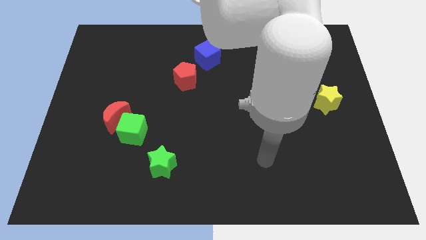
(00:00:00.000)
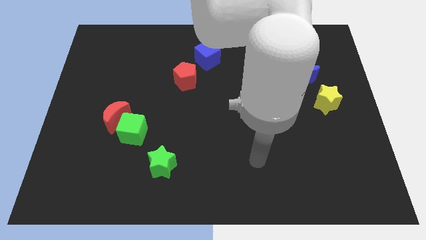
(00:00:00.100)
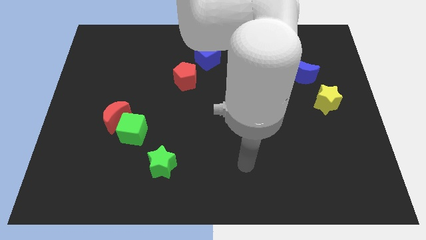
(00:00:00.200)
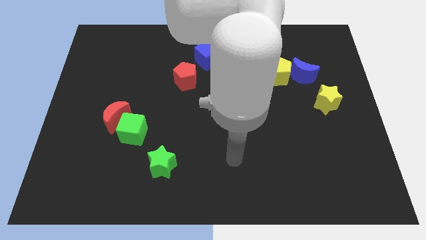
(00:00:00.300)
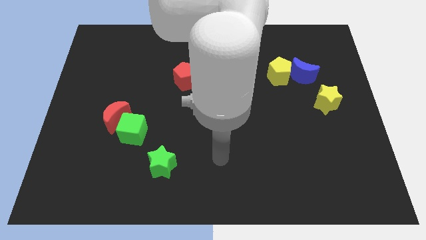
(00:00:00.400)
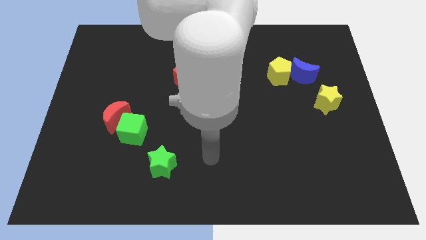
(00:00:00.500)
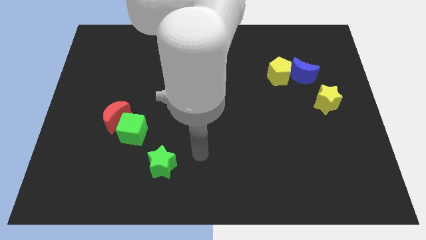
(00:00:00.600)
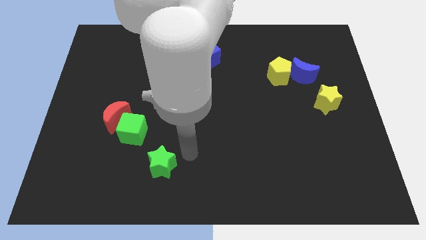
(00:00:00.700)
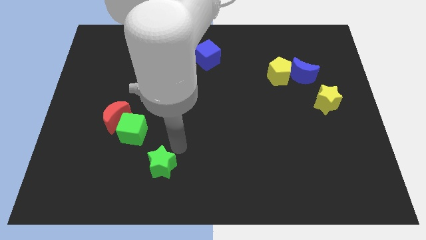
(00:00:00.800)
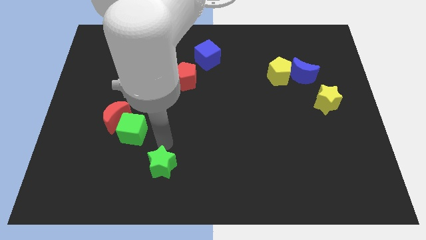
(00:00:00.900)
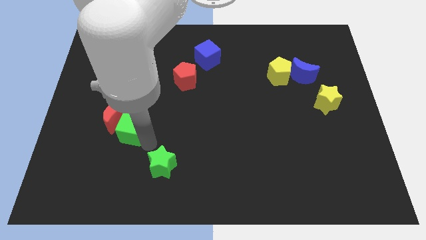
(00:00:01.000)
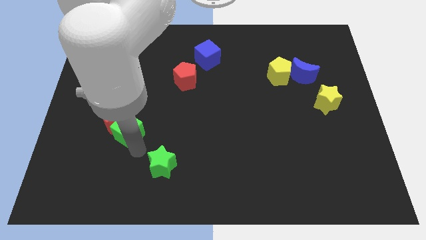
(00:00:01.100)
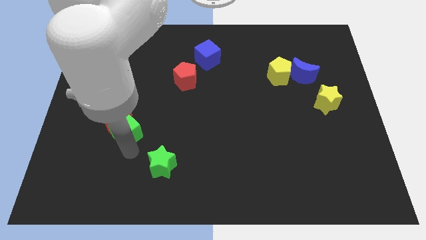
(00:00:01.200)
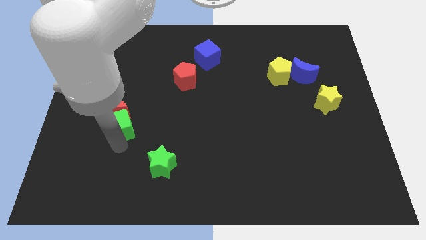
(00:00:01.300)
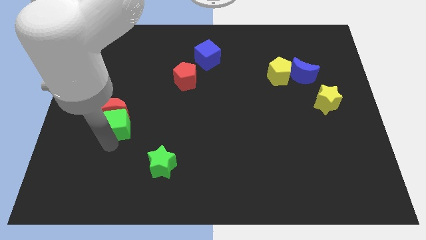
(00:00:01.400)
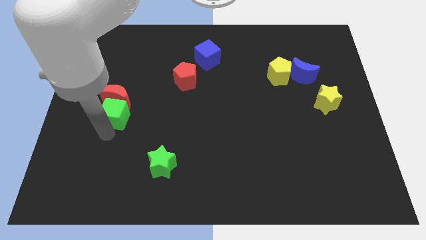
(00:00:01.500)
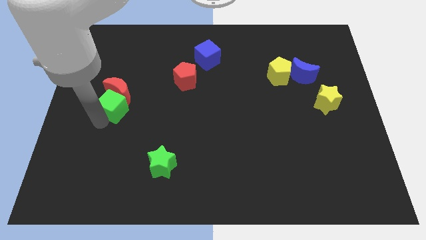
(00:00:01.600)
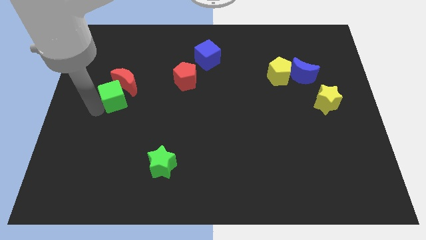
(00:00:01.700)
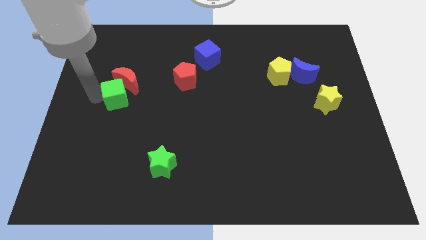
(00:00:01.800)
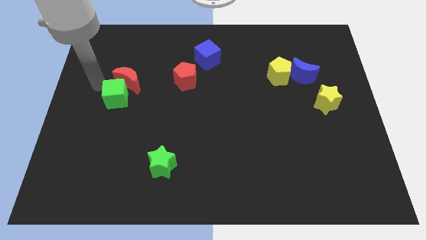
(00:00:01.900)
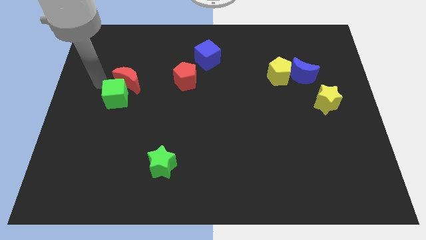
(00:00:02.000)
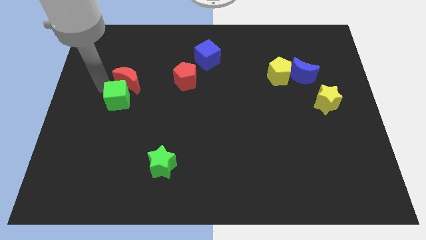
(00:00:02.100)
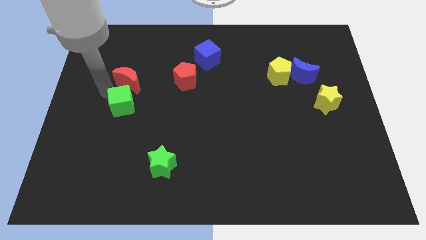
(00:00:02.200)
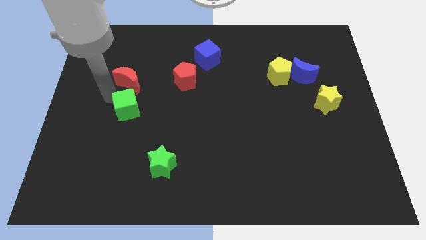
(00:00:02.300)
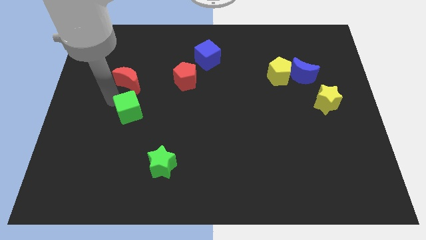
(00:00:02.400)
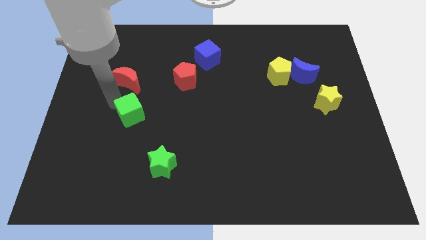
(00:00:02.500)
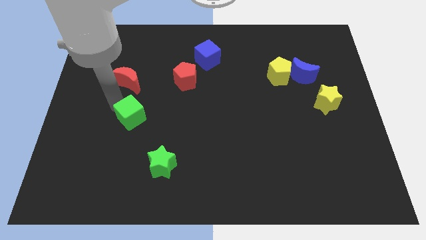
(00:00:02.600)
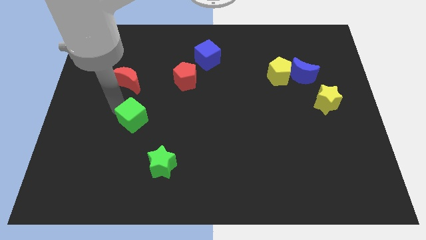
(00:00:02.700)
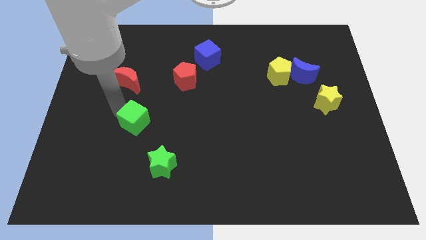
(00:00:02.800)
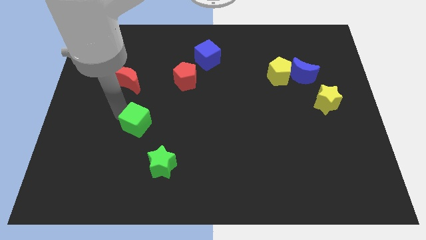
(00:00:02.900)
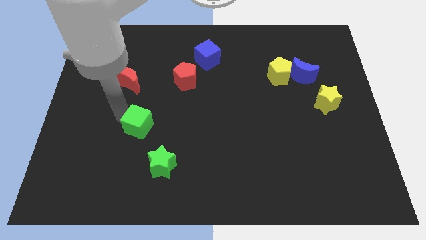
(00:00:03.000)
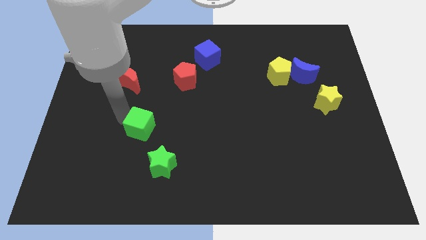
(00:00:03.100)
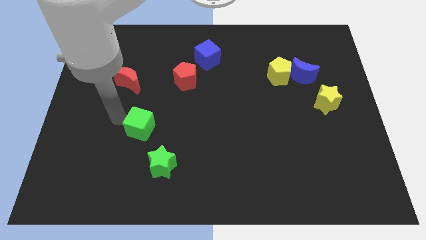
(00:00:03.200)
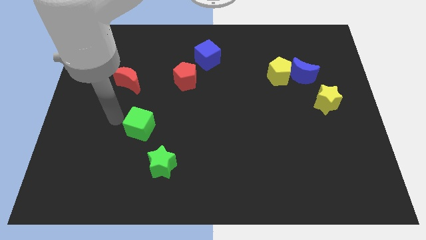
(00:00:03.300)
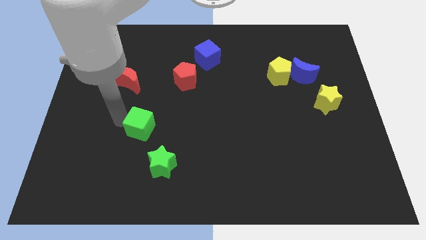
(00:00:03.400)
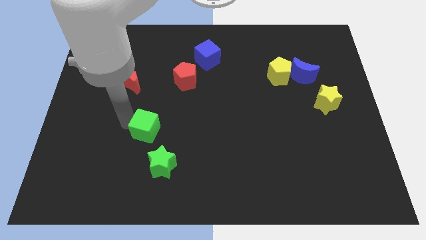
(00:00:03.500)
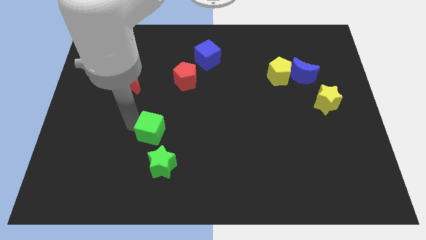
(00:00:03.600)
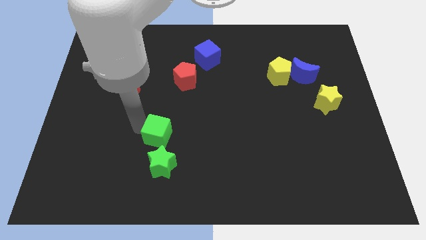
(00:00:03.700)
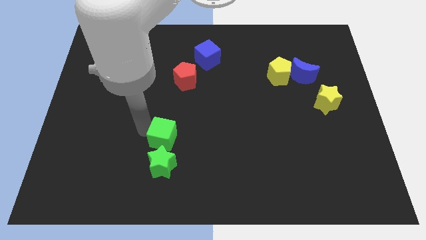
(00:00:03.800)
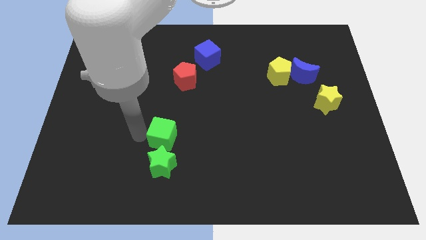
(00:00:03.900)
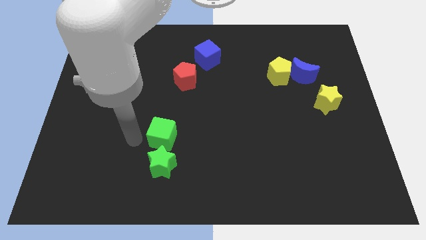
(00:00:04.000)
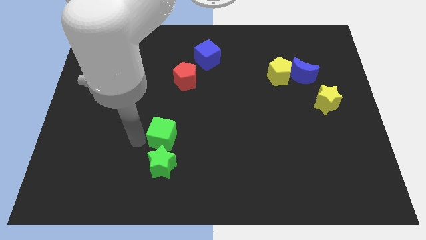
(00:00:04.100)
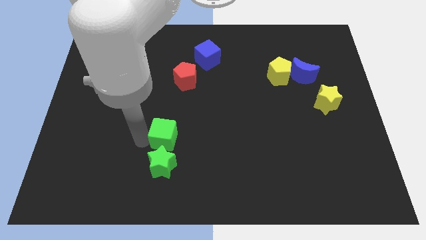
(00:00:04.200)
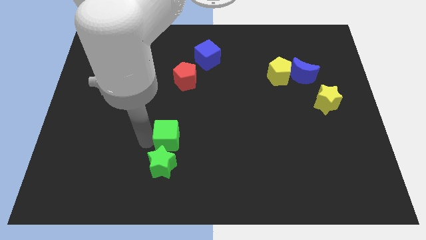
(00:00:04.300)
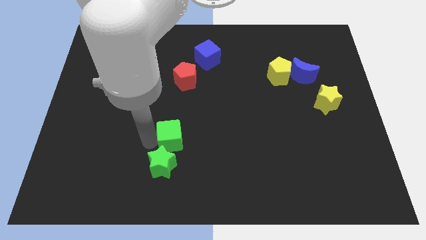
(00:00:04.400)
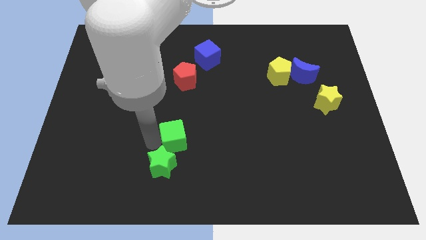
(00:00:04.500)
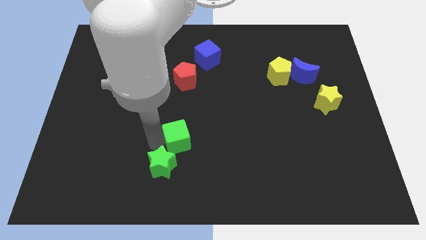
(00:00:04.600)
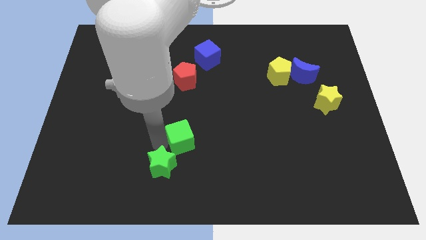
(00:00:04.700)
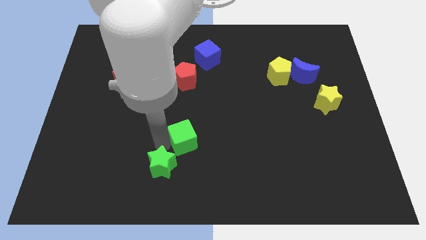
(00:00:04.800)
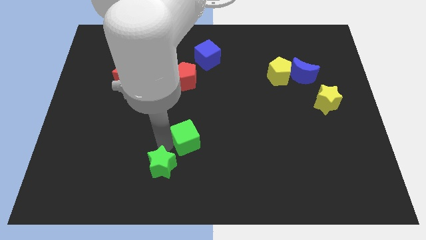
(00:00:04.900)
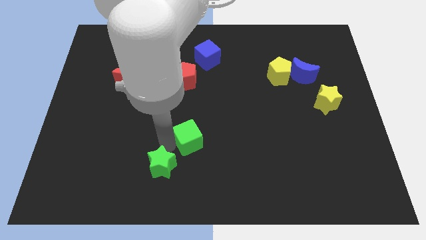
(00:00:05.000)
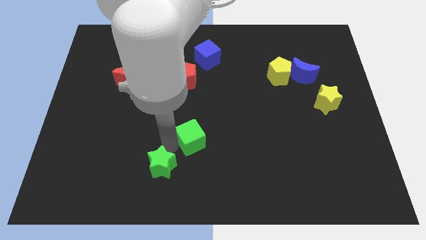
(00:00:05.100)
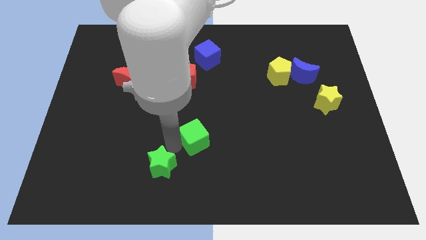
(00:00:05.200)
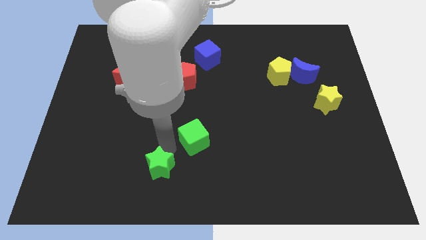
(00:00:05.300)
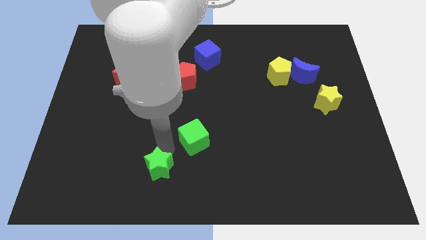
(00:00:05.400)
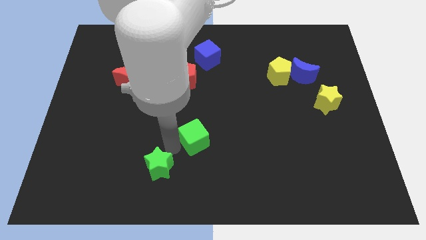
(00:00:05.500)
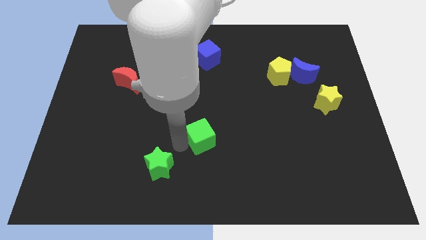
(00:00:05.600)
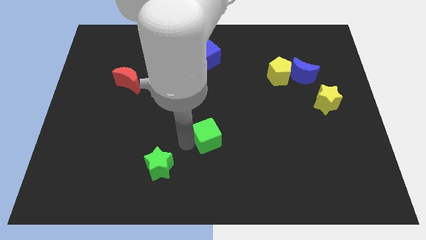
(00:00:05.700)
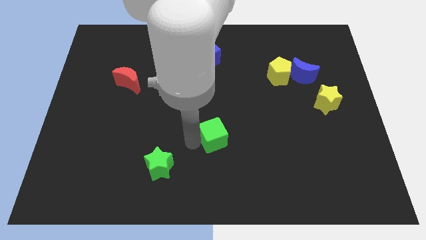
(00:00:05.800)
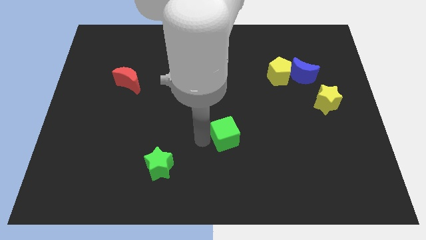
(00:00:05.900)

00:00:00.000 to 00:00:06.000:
push the green cube right

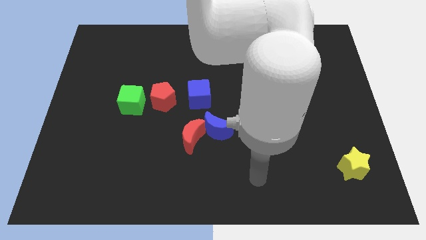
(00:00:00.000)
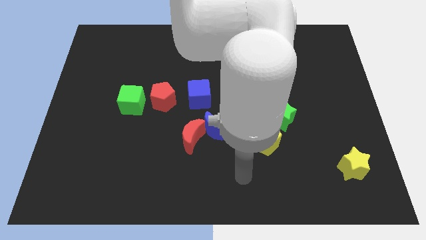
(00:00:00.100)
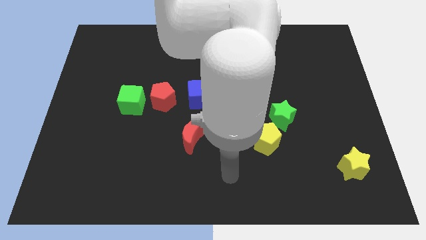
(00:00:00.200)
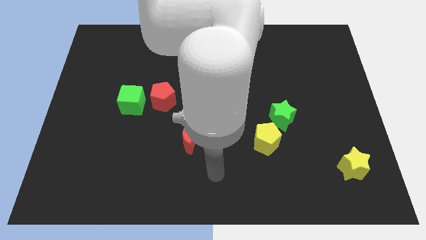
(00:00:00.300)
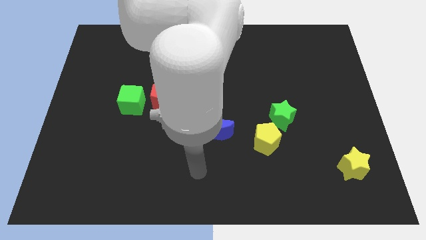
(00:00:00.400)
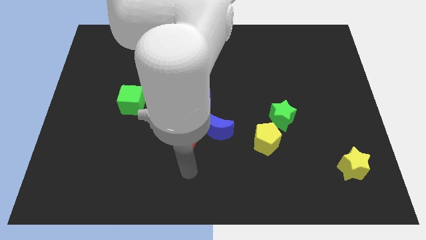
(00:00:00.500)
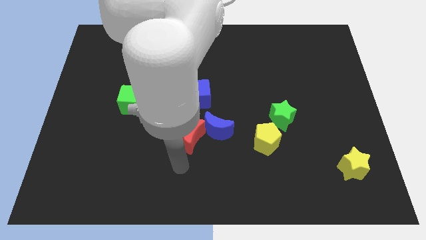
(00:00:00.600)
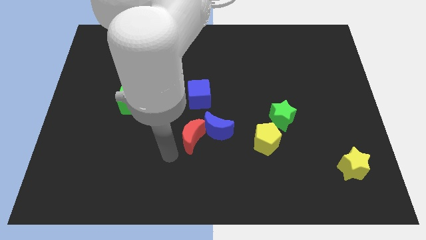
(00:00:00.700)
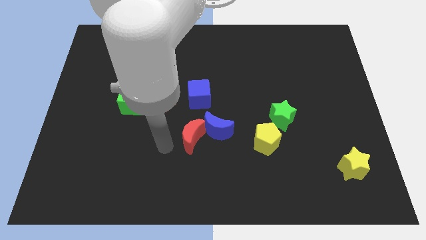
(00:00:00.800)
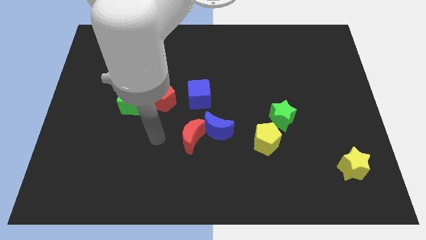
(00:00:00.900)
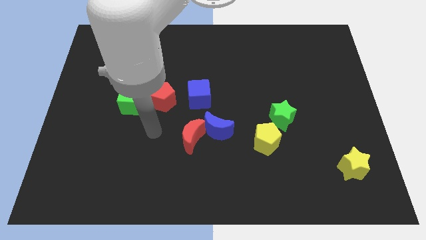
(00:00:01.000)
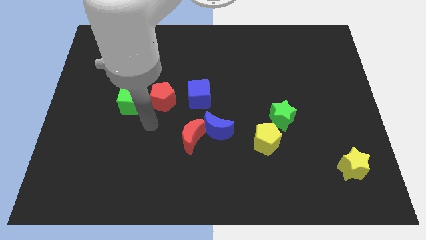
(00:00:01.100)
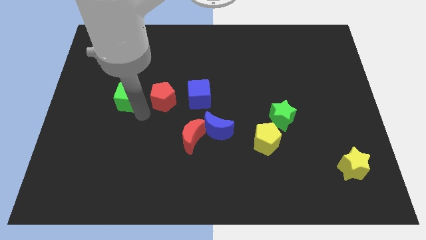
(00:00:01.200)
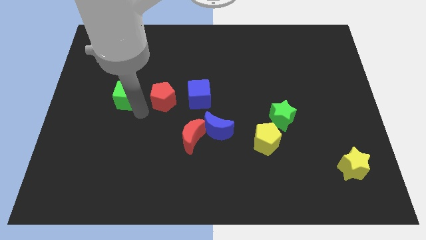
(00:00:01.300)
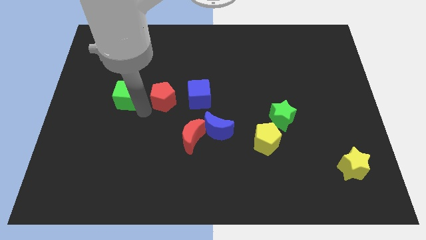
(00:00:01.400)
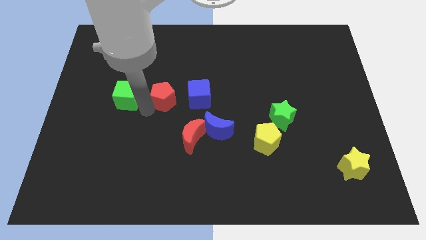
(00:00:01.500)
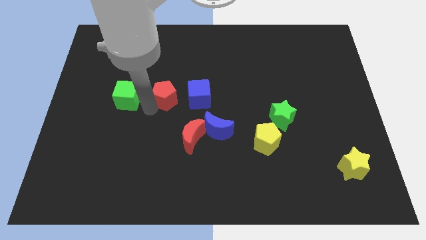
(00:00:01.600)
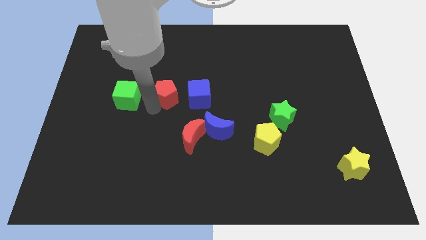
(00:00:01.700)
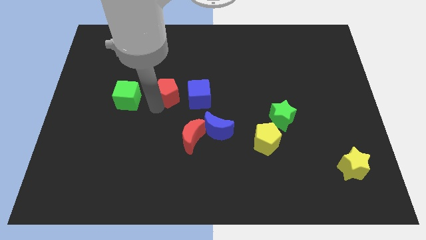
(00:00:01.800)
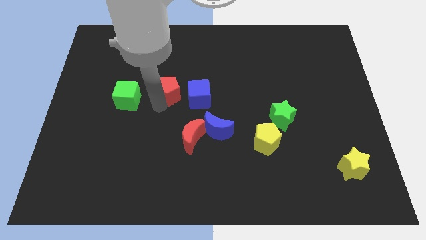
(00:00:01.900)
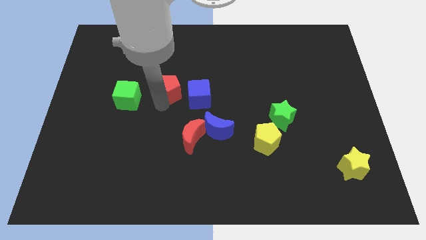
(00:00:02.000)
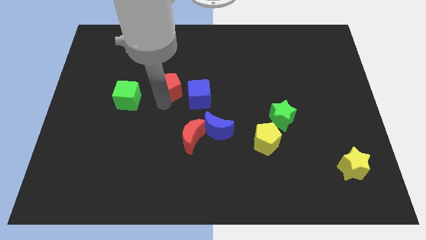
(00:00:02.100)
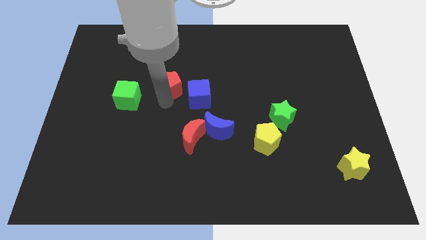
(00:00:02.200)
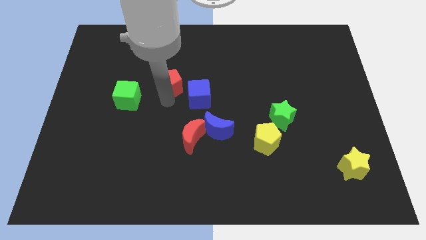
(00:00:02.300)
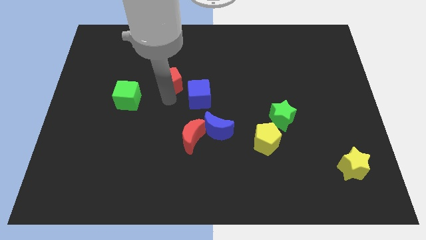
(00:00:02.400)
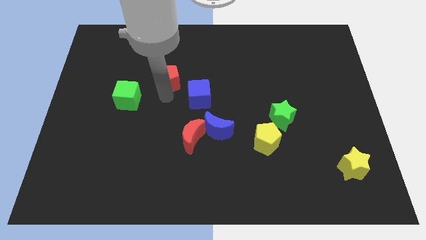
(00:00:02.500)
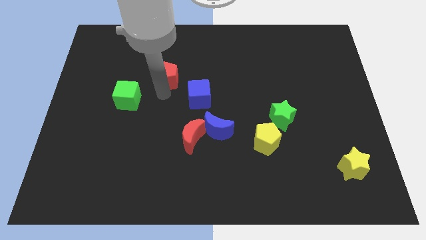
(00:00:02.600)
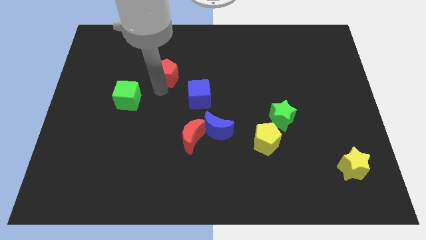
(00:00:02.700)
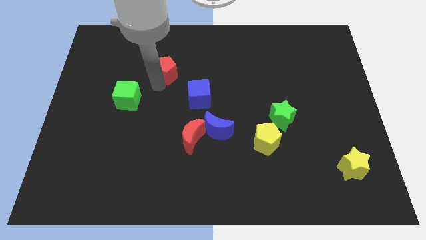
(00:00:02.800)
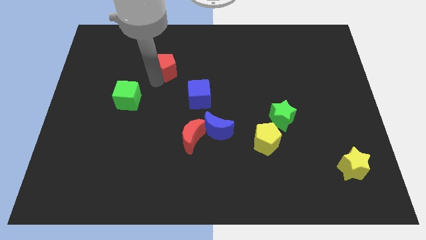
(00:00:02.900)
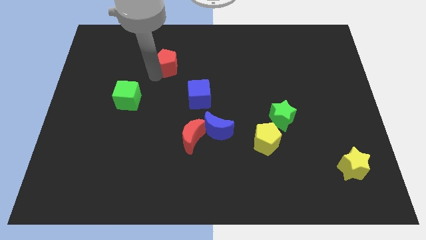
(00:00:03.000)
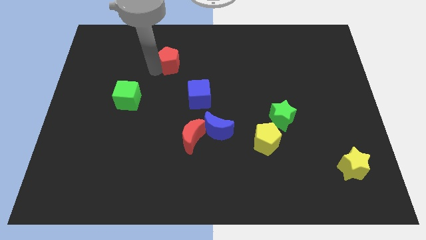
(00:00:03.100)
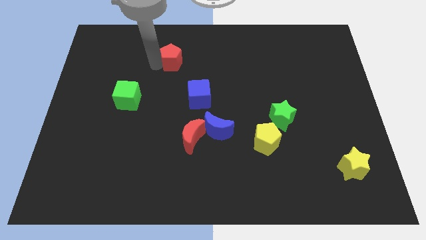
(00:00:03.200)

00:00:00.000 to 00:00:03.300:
slide the red pentagon upwards and right a bit
